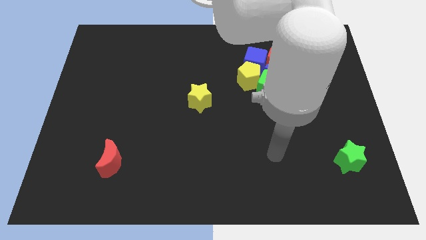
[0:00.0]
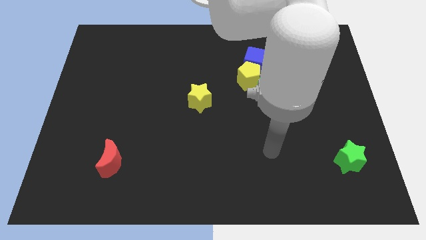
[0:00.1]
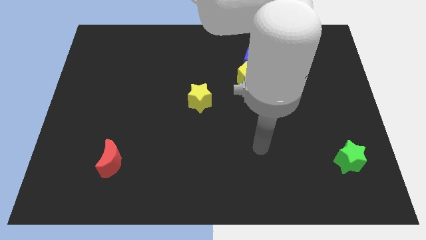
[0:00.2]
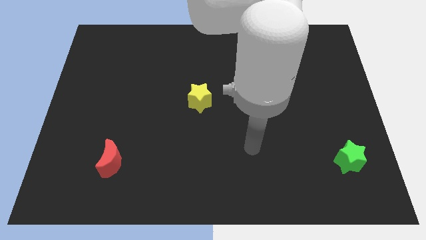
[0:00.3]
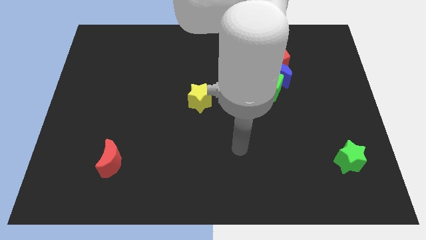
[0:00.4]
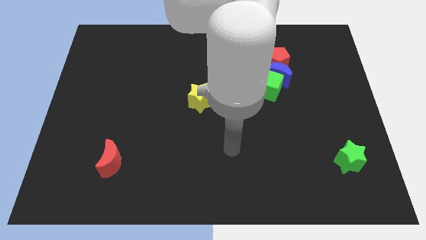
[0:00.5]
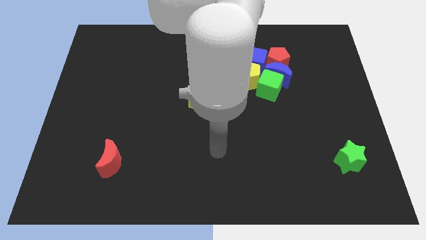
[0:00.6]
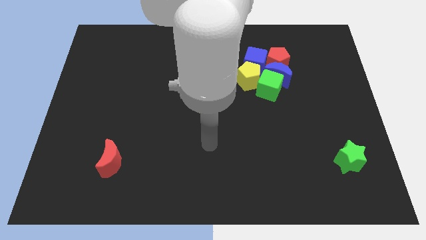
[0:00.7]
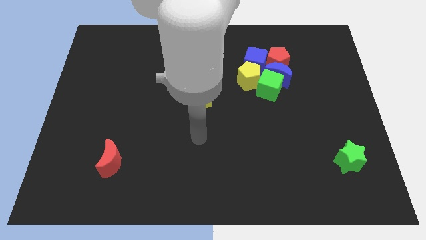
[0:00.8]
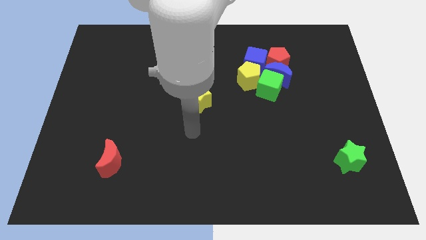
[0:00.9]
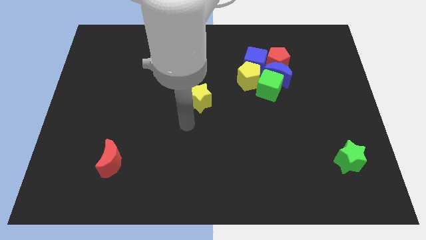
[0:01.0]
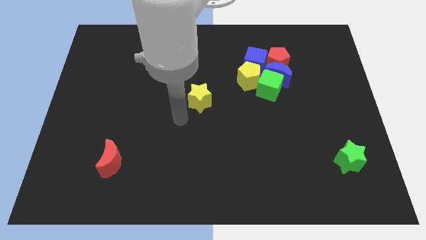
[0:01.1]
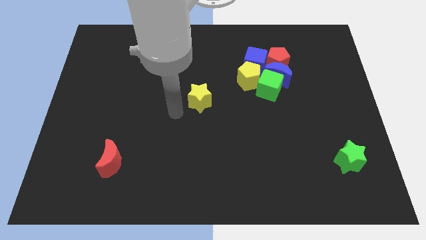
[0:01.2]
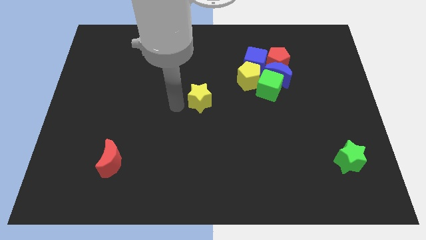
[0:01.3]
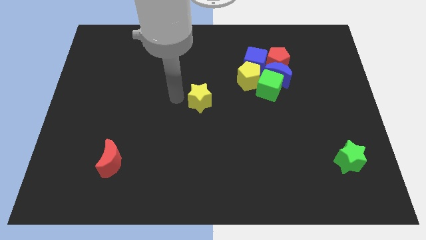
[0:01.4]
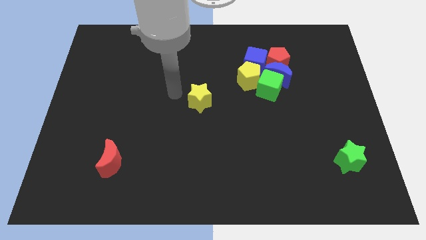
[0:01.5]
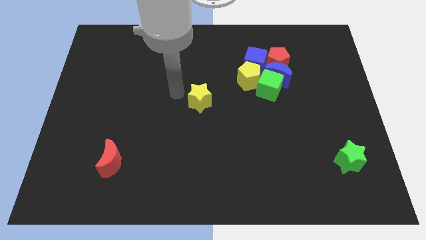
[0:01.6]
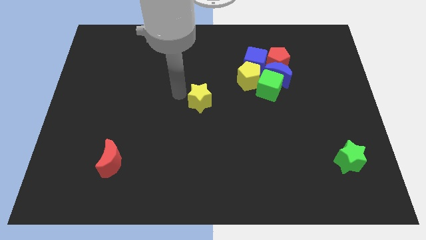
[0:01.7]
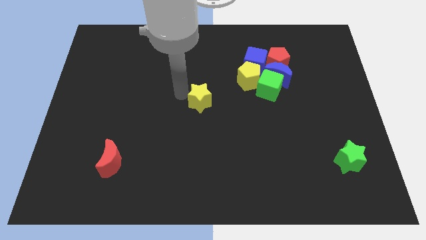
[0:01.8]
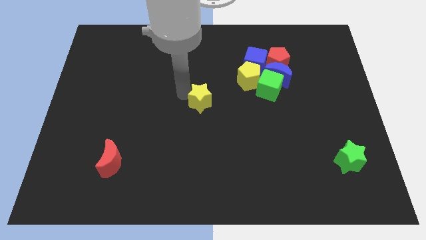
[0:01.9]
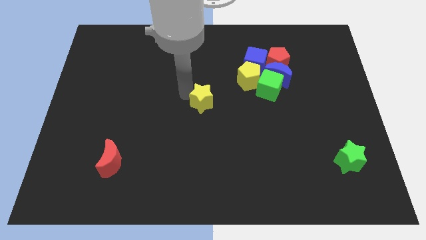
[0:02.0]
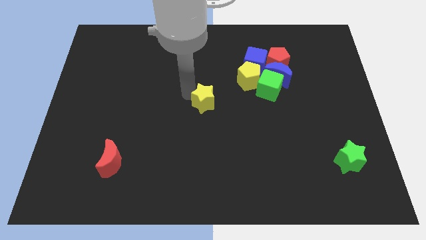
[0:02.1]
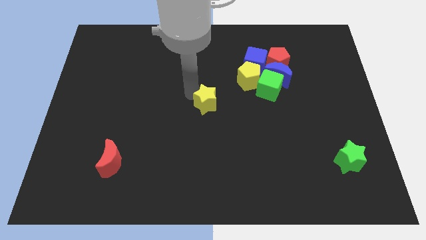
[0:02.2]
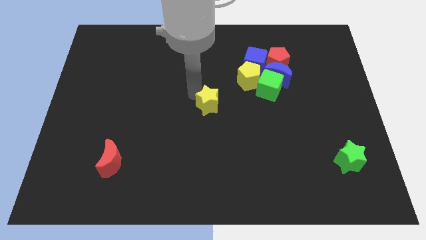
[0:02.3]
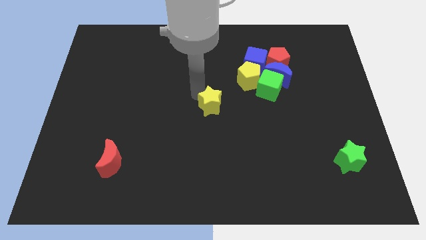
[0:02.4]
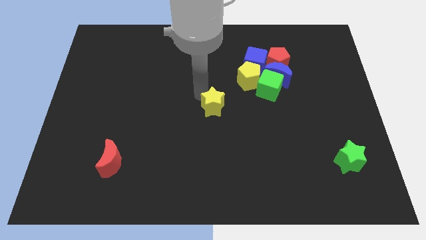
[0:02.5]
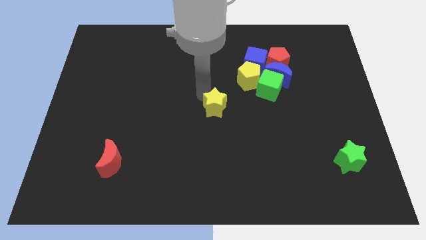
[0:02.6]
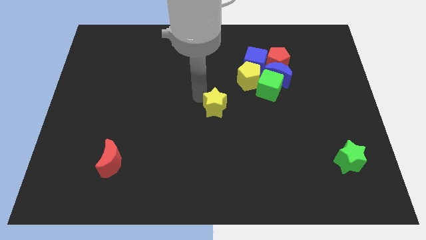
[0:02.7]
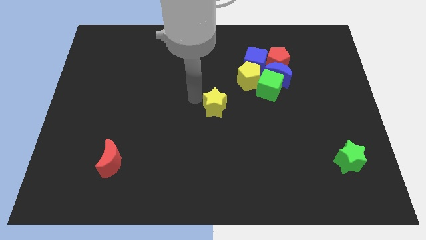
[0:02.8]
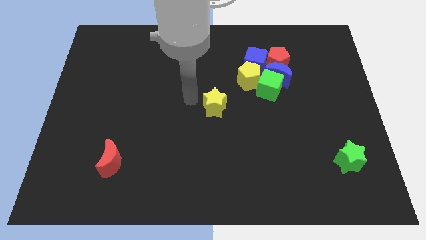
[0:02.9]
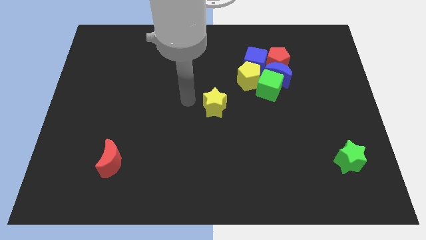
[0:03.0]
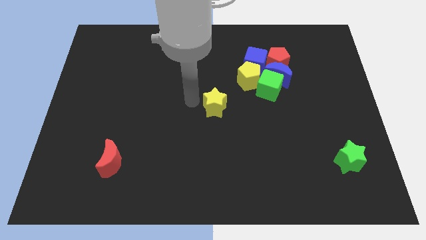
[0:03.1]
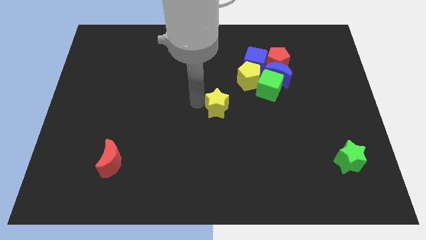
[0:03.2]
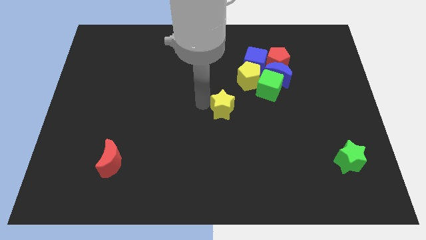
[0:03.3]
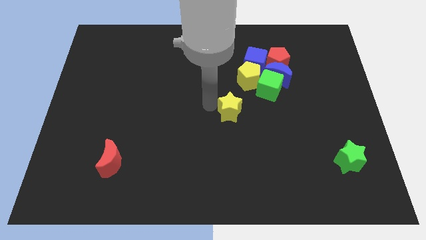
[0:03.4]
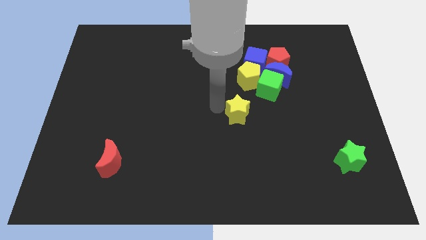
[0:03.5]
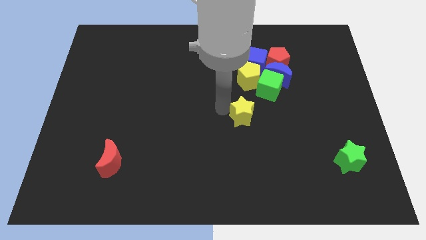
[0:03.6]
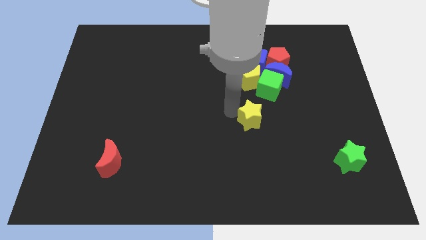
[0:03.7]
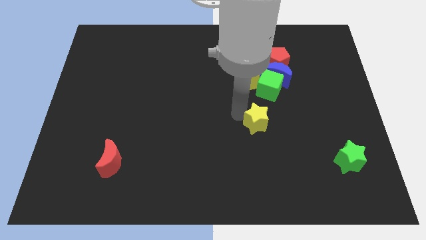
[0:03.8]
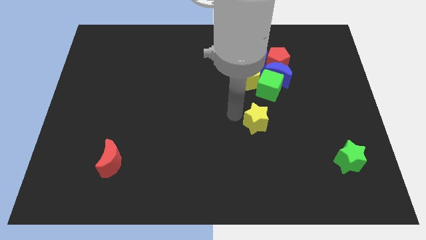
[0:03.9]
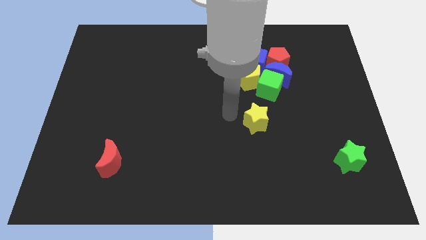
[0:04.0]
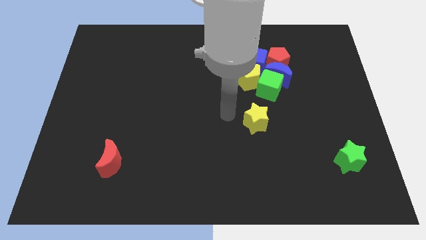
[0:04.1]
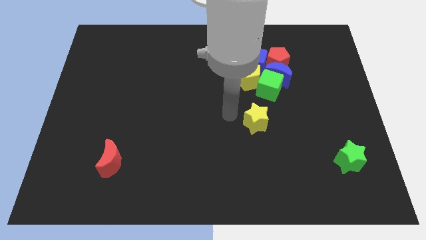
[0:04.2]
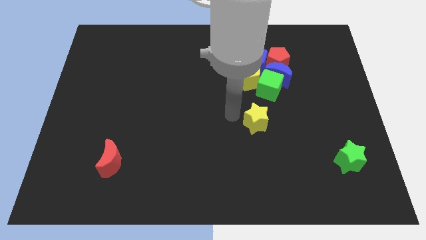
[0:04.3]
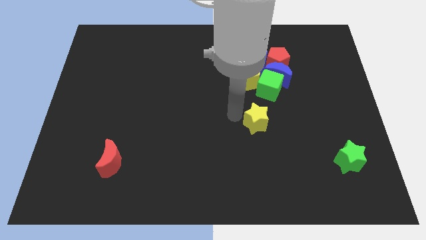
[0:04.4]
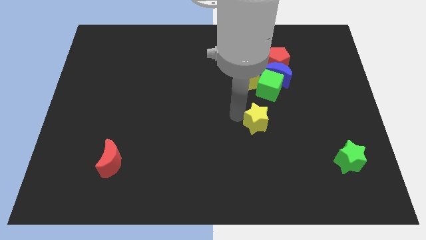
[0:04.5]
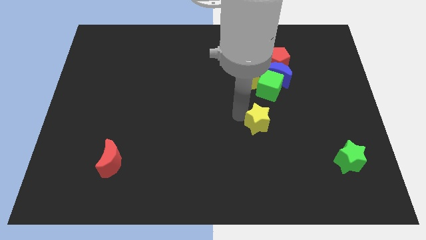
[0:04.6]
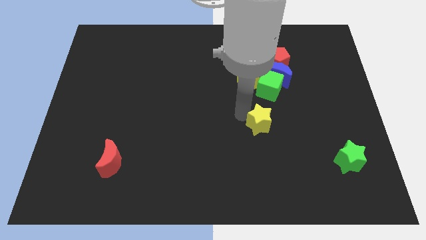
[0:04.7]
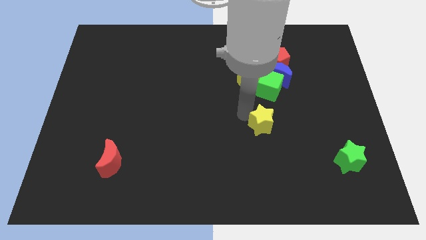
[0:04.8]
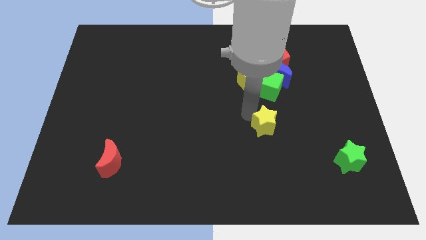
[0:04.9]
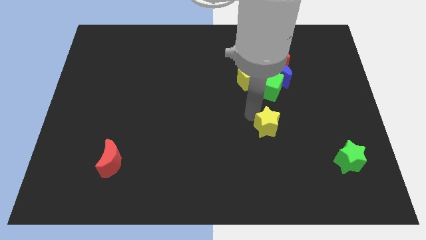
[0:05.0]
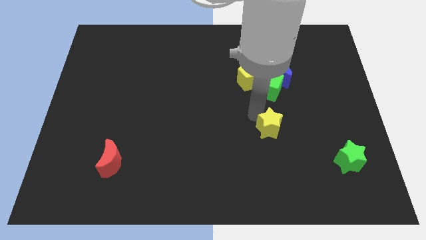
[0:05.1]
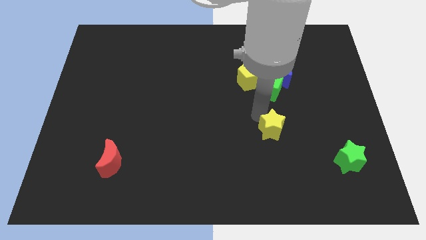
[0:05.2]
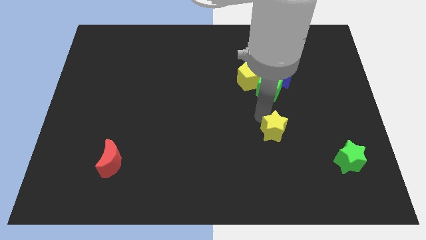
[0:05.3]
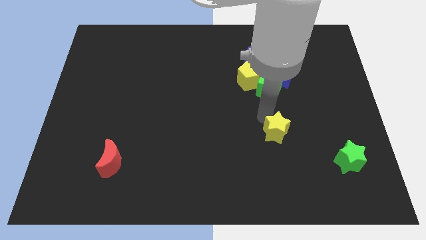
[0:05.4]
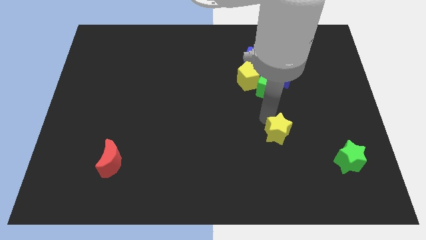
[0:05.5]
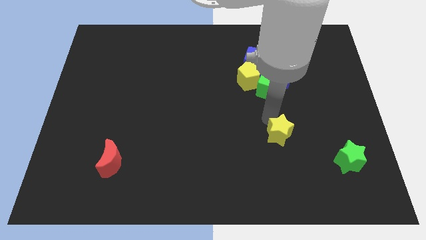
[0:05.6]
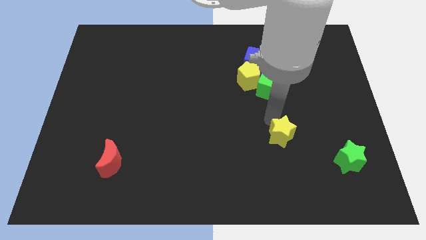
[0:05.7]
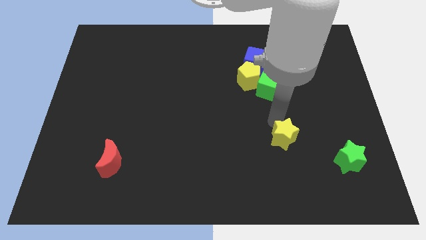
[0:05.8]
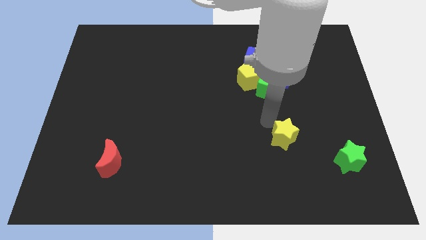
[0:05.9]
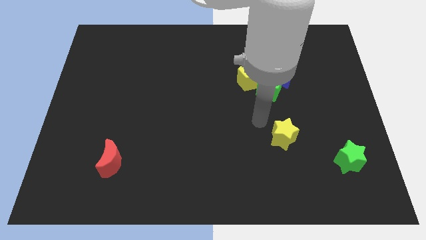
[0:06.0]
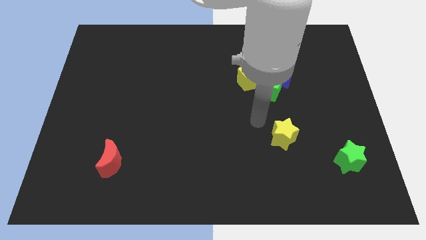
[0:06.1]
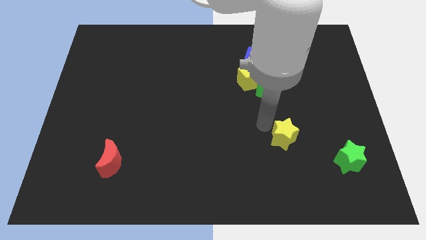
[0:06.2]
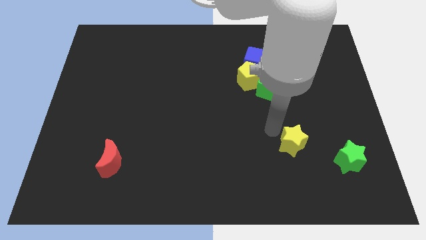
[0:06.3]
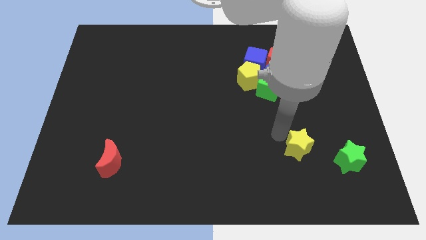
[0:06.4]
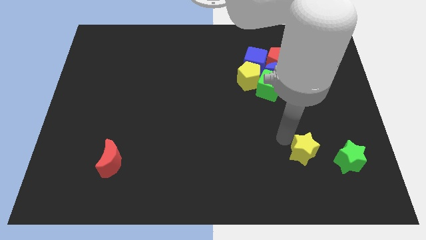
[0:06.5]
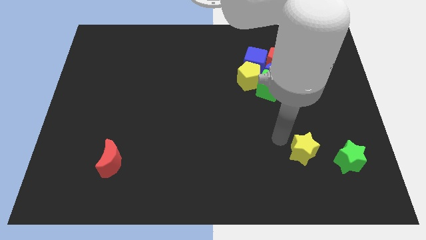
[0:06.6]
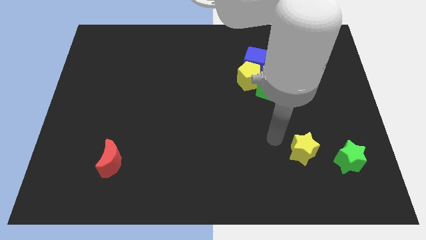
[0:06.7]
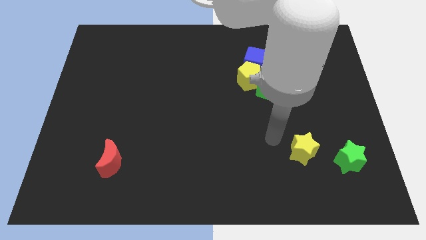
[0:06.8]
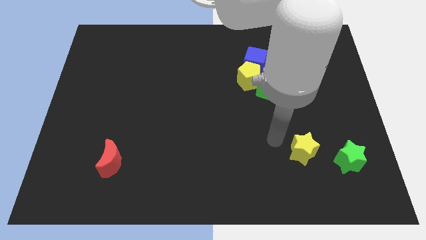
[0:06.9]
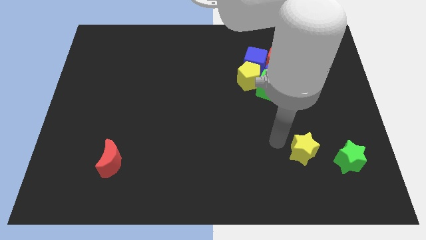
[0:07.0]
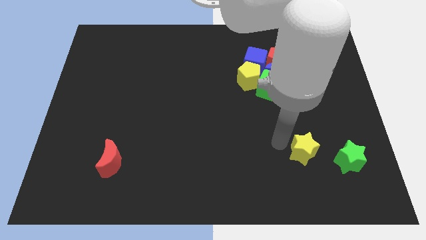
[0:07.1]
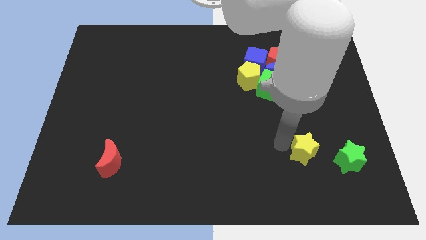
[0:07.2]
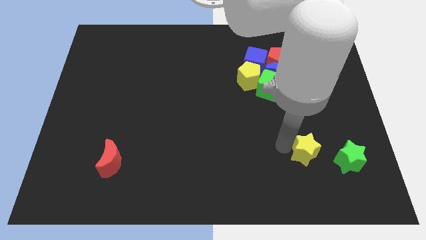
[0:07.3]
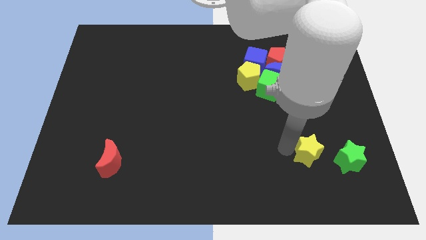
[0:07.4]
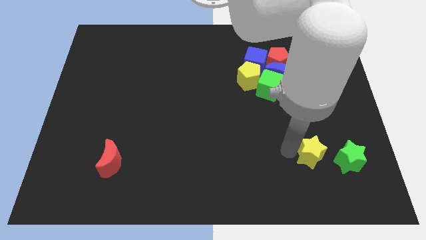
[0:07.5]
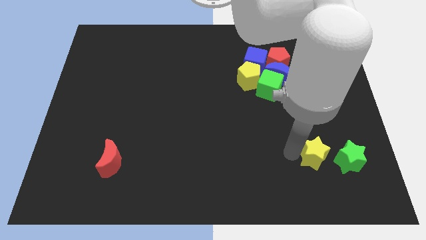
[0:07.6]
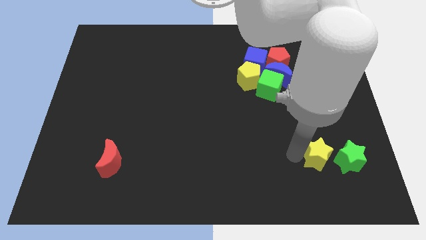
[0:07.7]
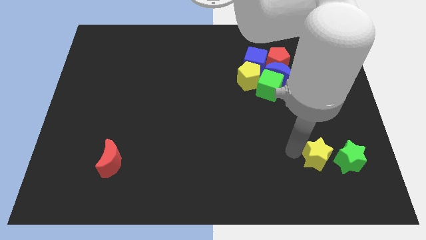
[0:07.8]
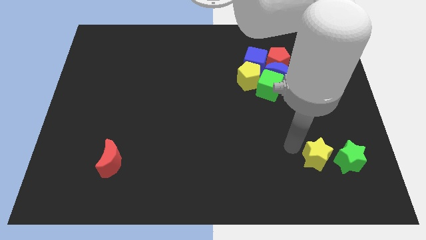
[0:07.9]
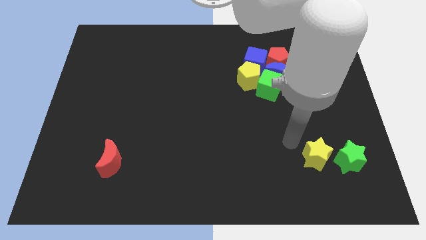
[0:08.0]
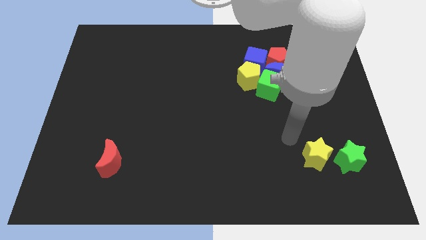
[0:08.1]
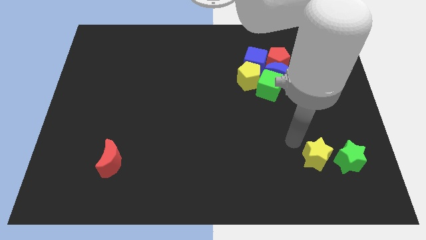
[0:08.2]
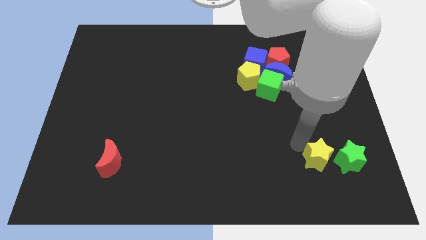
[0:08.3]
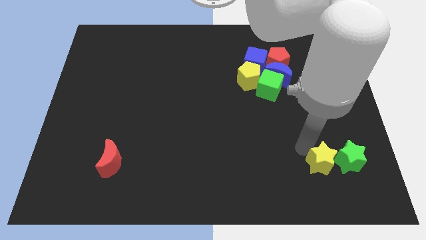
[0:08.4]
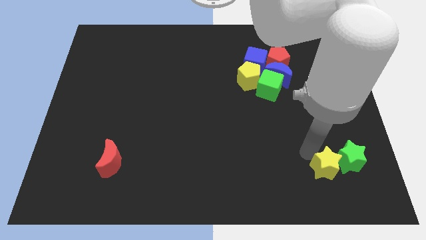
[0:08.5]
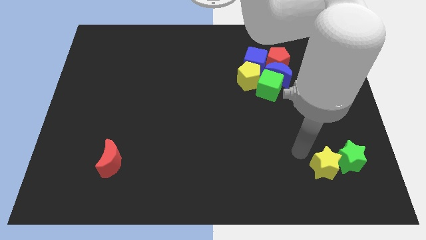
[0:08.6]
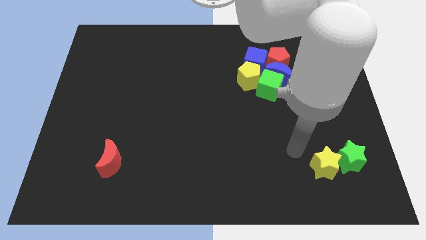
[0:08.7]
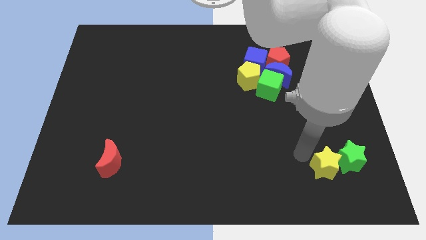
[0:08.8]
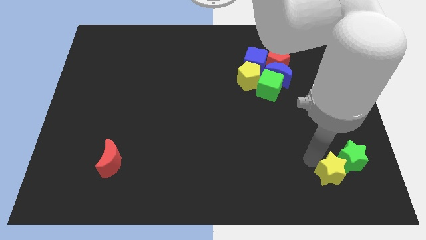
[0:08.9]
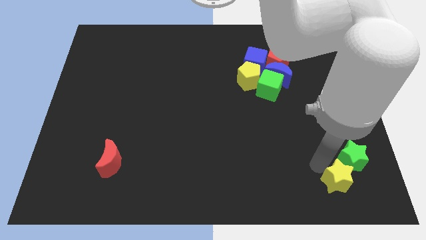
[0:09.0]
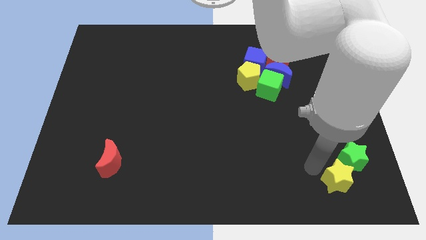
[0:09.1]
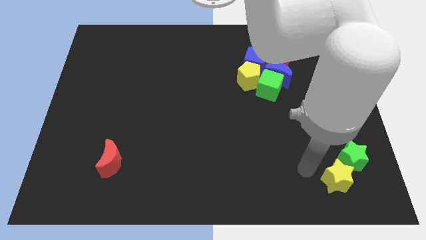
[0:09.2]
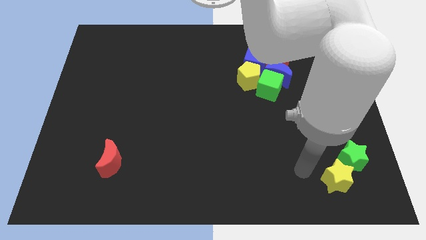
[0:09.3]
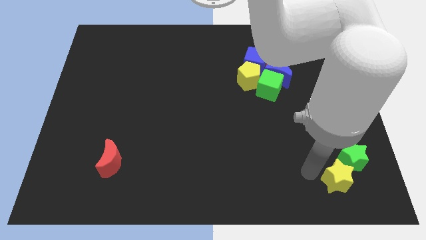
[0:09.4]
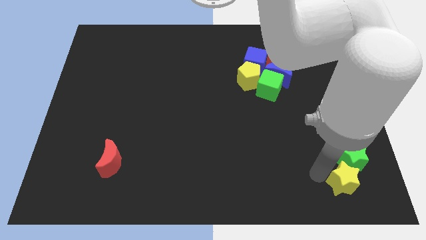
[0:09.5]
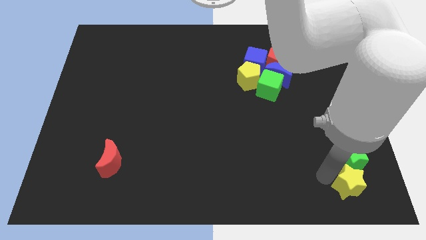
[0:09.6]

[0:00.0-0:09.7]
move the yellow star to the lower right corner
